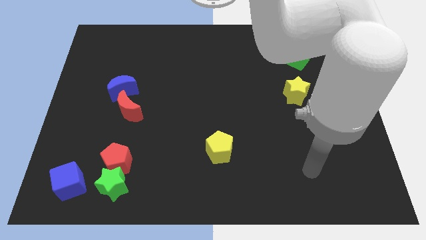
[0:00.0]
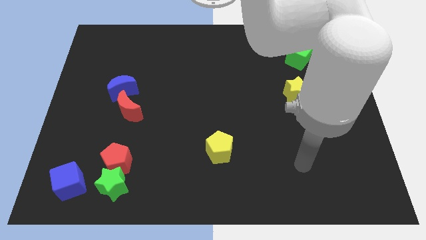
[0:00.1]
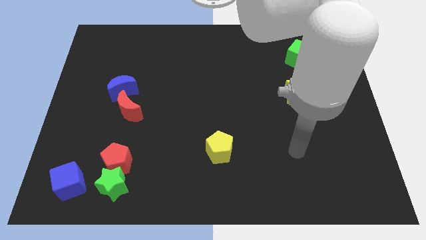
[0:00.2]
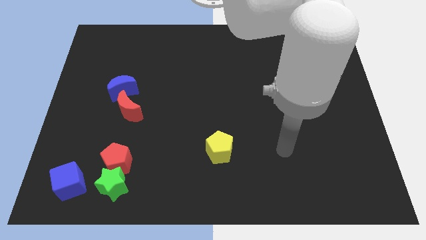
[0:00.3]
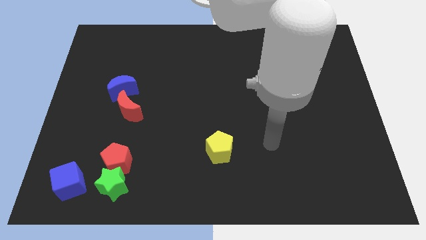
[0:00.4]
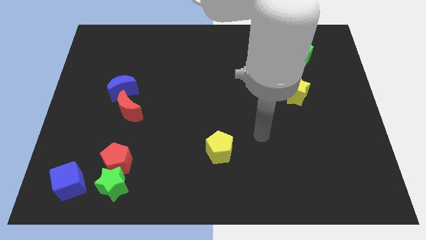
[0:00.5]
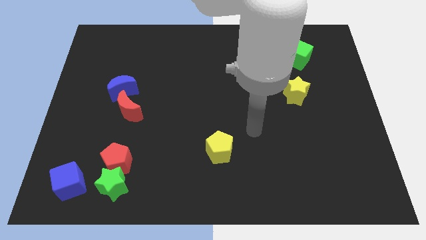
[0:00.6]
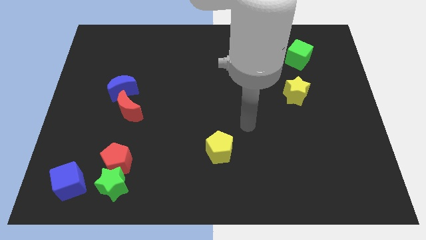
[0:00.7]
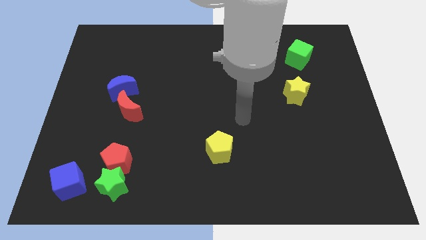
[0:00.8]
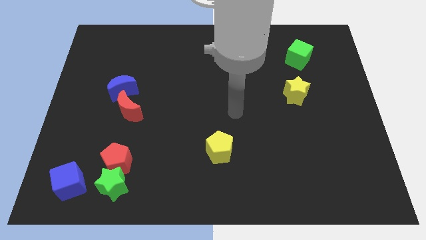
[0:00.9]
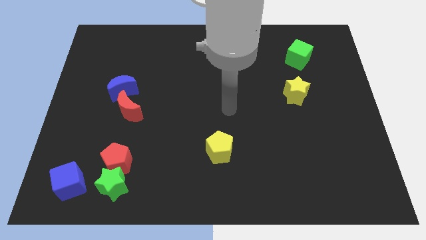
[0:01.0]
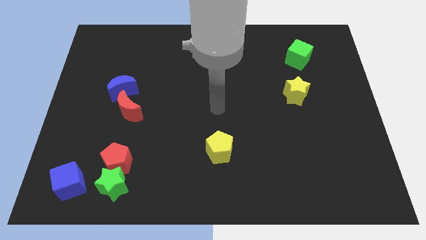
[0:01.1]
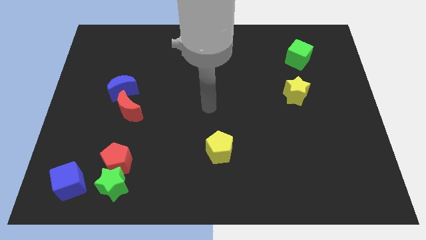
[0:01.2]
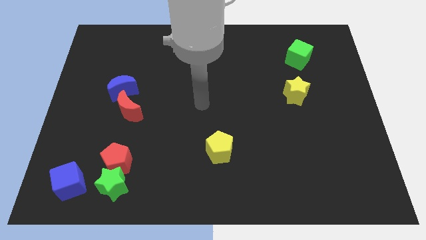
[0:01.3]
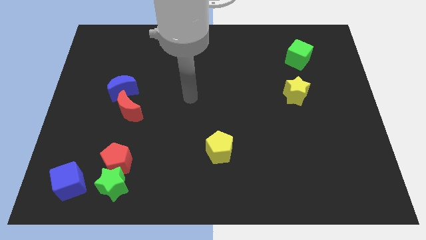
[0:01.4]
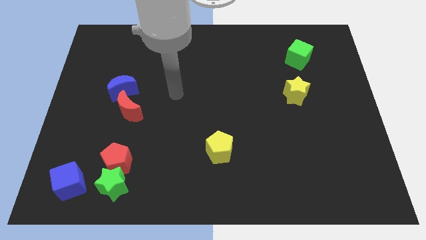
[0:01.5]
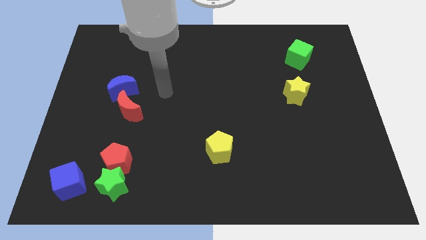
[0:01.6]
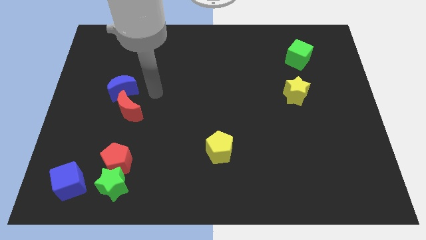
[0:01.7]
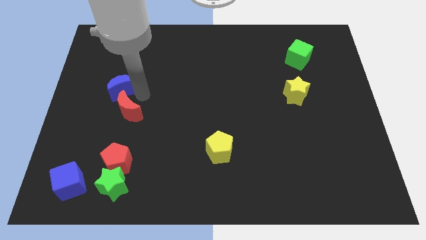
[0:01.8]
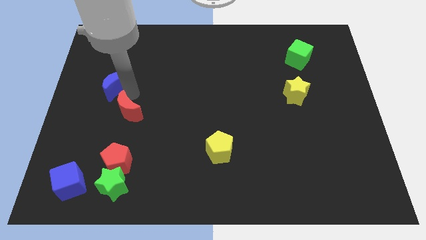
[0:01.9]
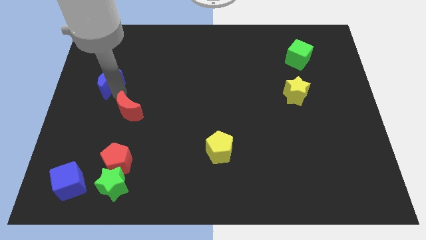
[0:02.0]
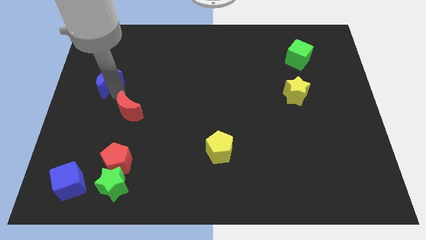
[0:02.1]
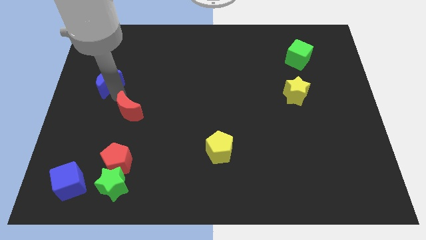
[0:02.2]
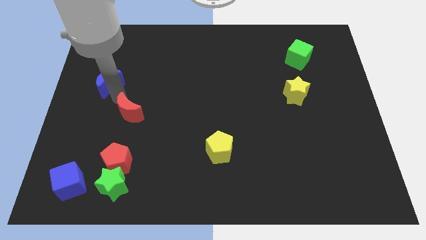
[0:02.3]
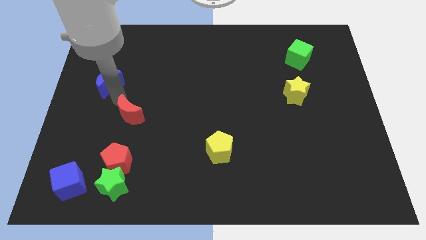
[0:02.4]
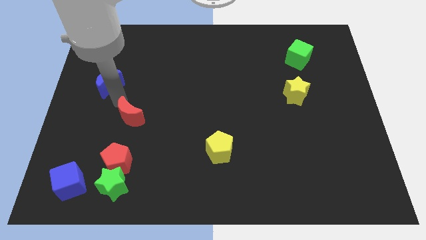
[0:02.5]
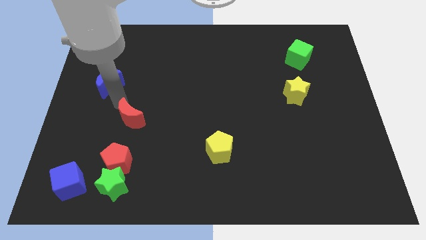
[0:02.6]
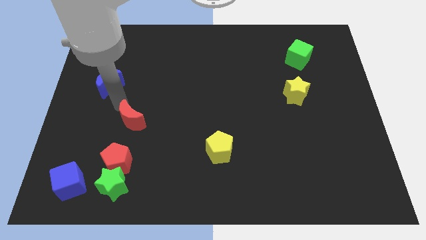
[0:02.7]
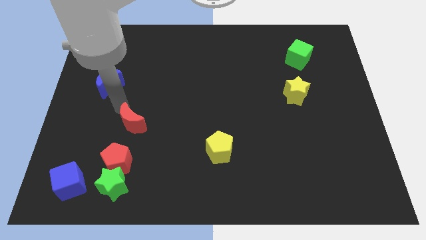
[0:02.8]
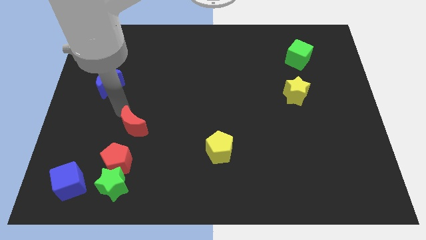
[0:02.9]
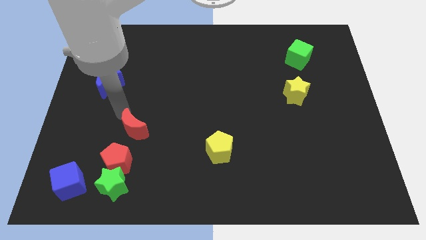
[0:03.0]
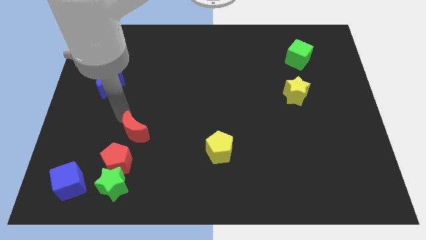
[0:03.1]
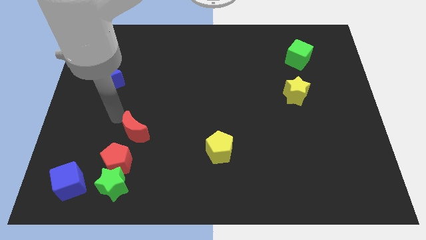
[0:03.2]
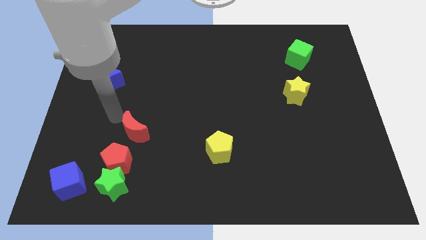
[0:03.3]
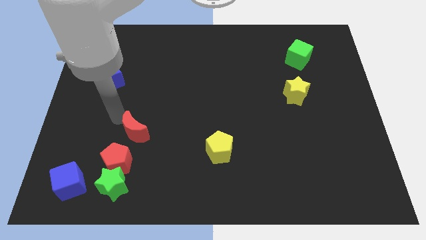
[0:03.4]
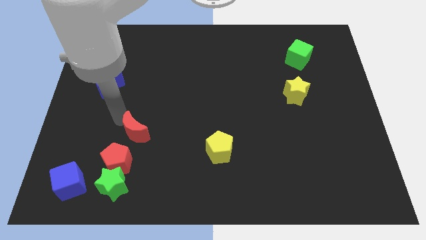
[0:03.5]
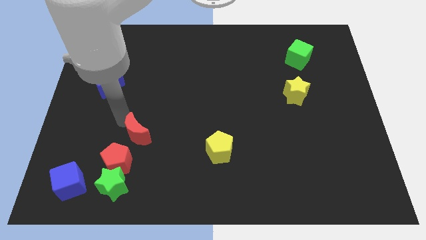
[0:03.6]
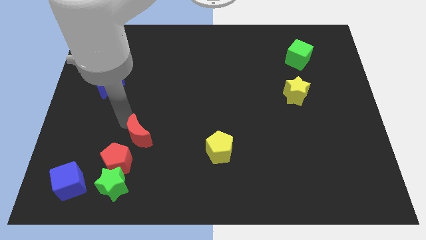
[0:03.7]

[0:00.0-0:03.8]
slide the red moon a little bit diagonally downwards and right

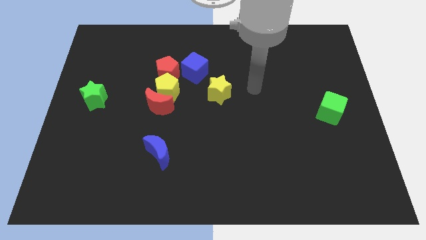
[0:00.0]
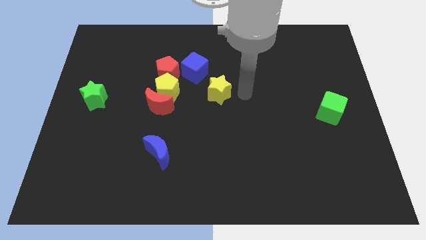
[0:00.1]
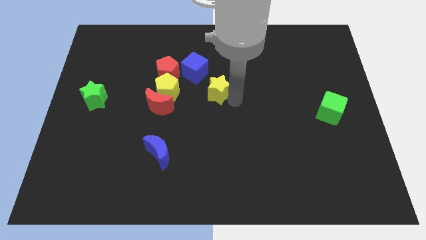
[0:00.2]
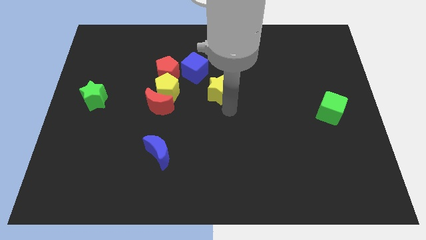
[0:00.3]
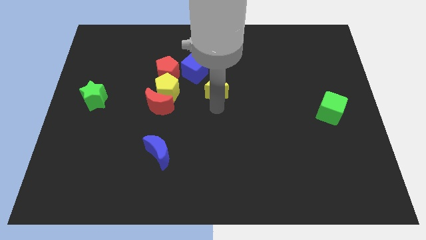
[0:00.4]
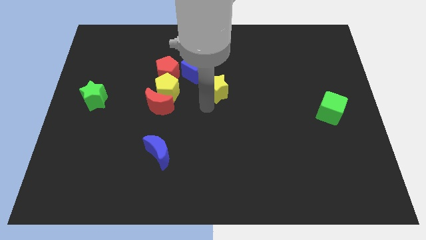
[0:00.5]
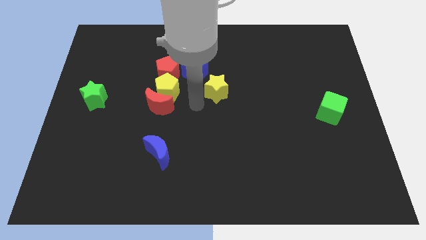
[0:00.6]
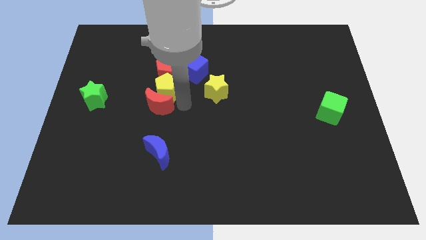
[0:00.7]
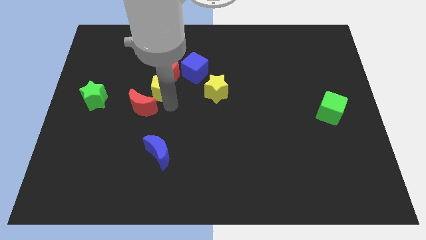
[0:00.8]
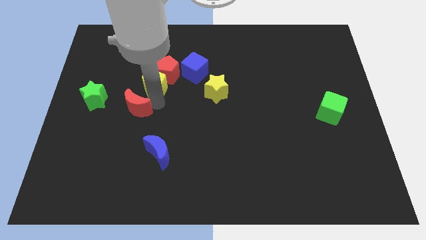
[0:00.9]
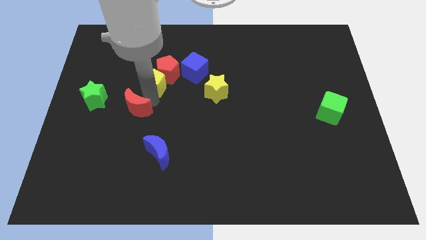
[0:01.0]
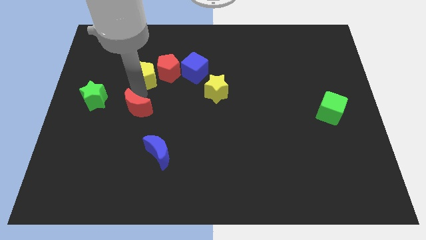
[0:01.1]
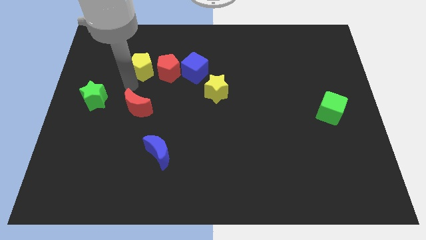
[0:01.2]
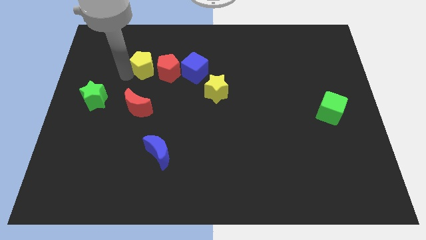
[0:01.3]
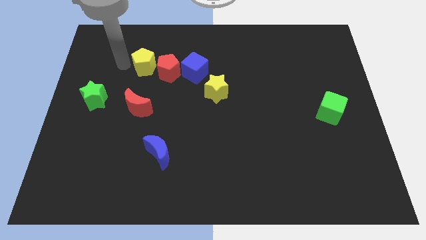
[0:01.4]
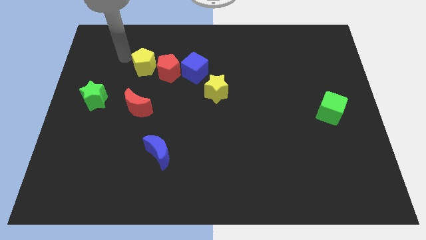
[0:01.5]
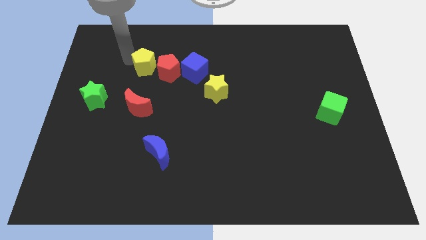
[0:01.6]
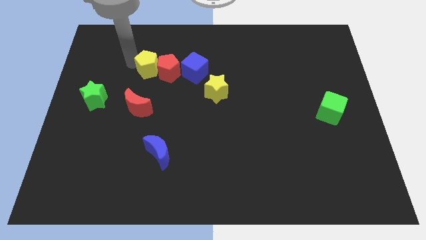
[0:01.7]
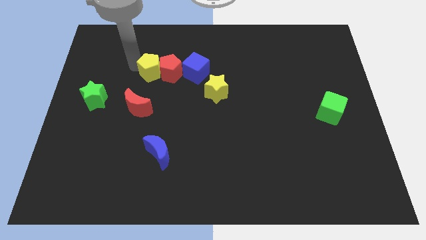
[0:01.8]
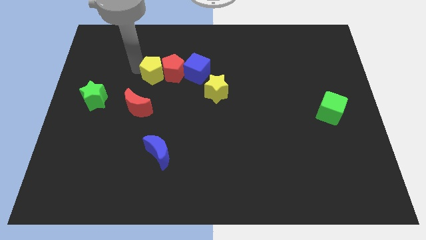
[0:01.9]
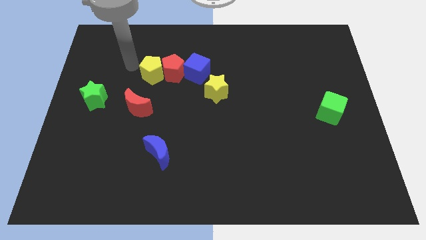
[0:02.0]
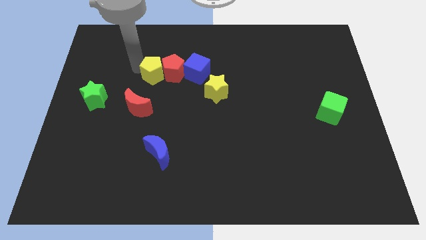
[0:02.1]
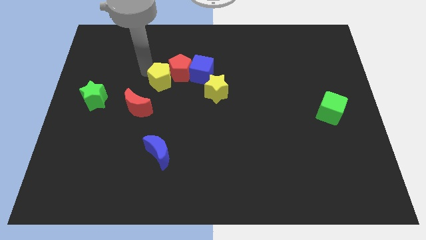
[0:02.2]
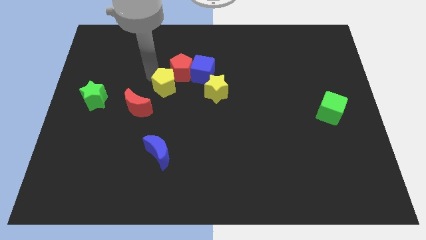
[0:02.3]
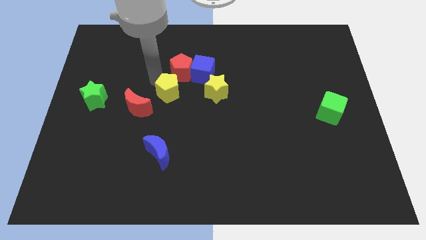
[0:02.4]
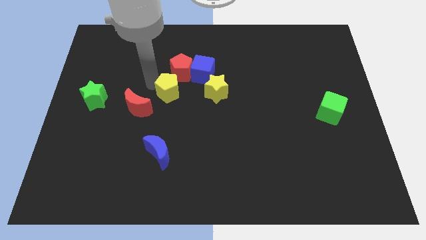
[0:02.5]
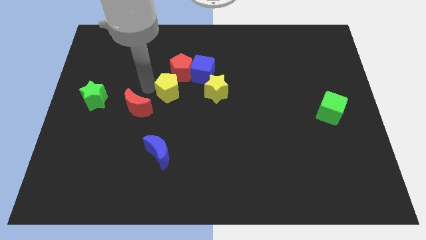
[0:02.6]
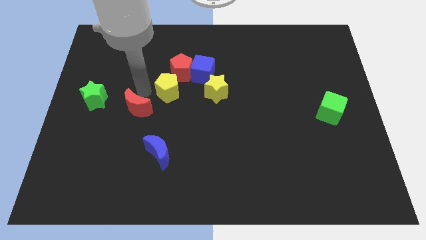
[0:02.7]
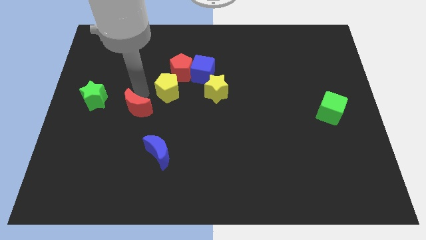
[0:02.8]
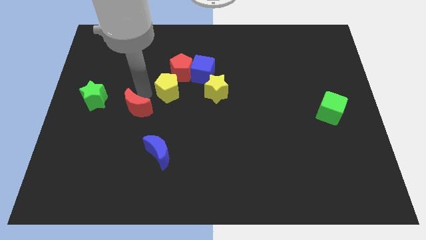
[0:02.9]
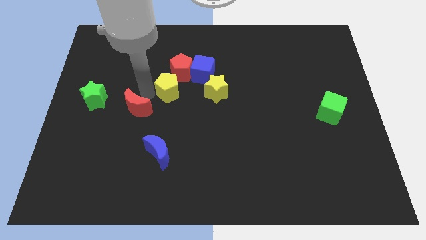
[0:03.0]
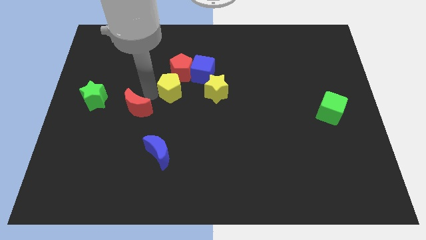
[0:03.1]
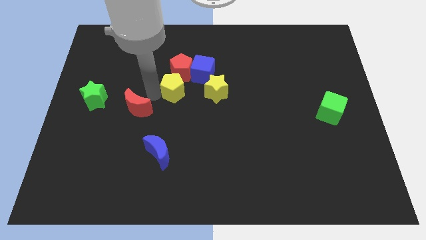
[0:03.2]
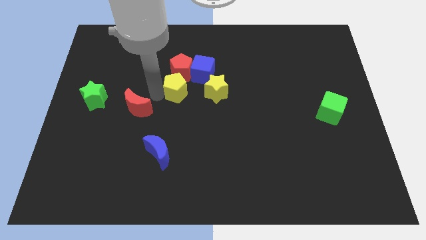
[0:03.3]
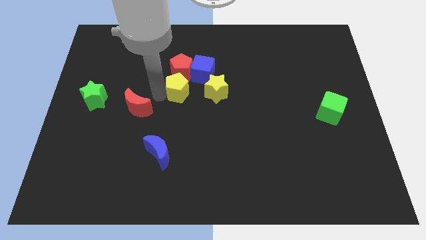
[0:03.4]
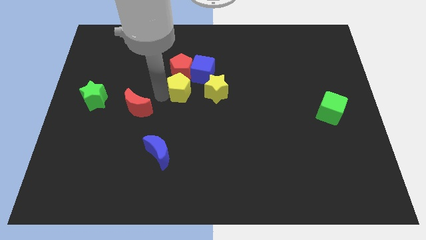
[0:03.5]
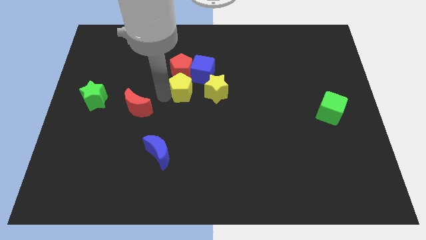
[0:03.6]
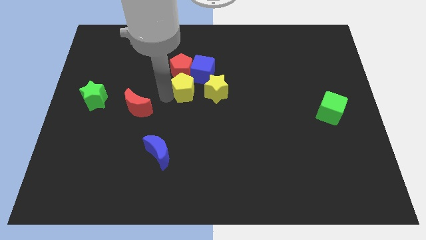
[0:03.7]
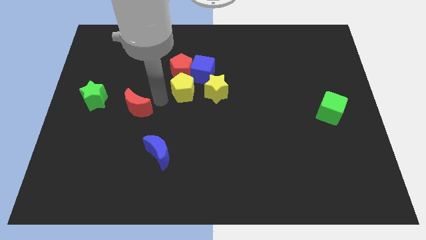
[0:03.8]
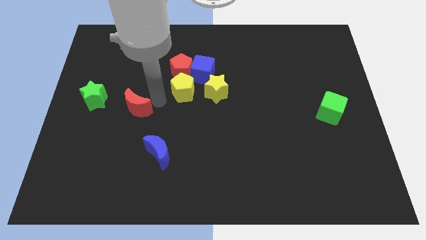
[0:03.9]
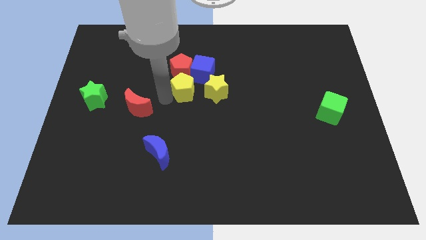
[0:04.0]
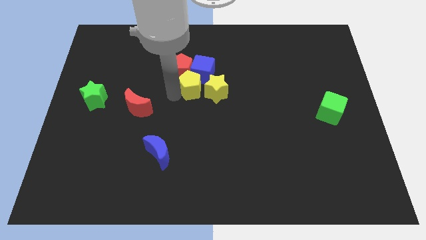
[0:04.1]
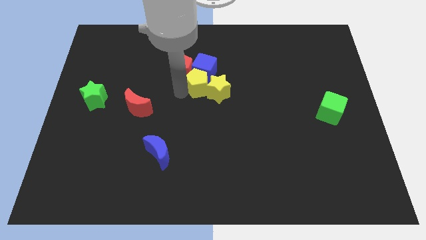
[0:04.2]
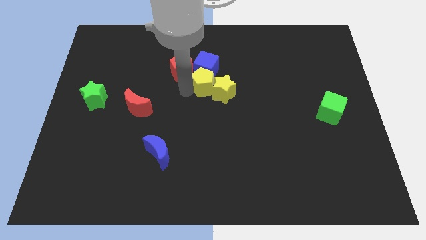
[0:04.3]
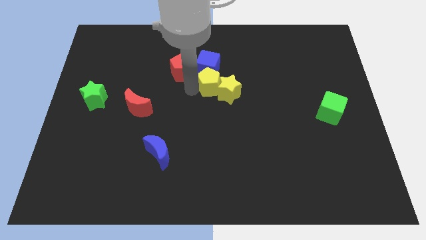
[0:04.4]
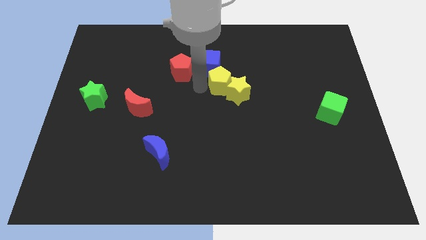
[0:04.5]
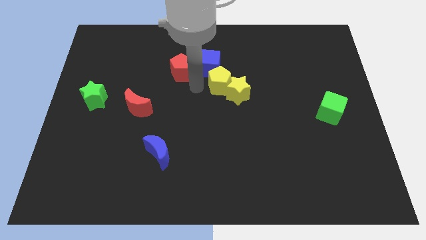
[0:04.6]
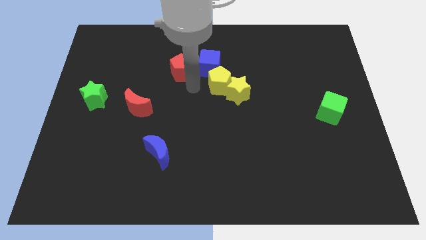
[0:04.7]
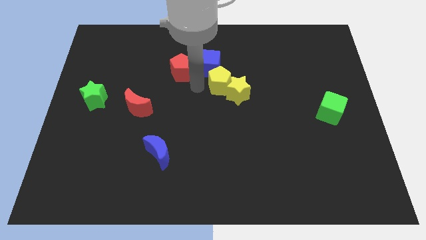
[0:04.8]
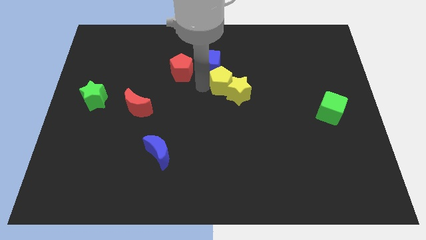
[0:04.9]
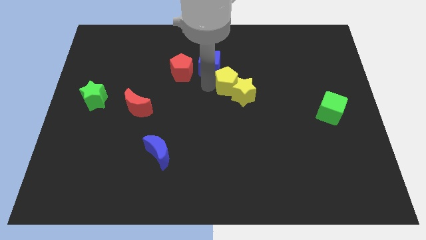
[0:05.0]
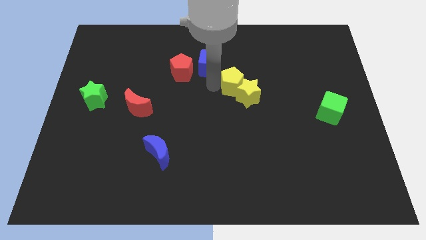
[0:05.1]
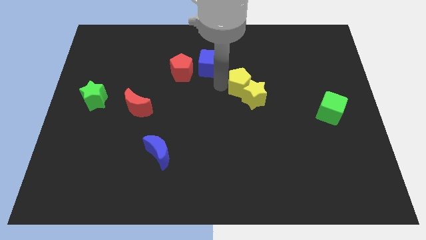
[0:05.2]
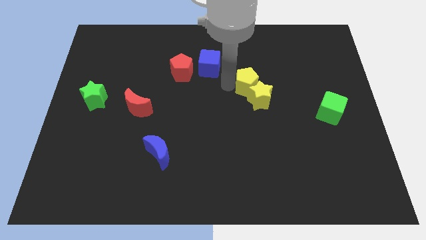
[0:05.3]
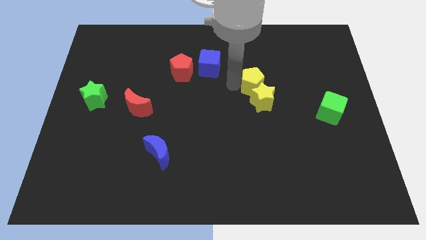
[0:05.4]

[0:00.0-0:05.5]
push the yellow pentagon right
